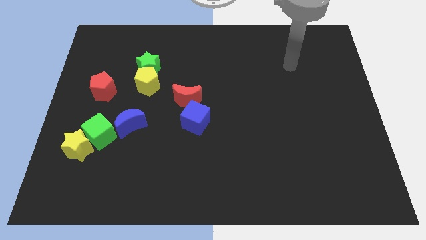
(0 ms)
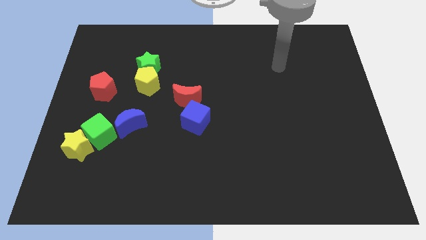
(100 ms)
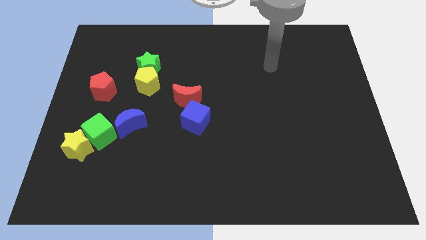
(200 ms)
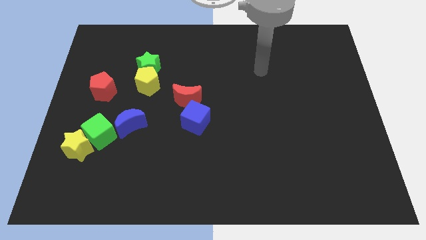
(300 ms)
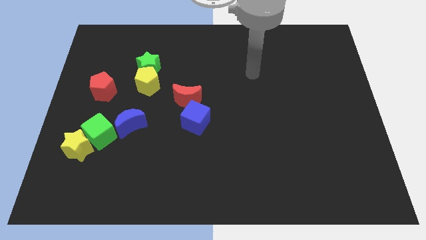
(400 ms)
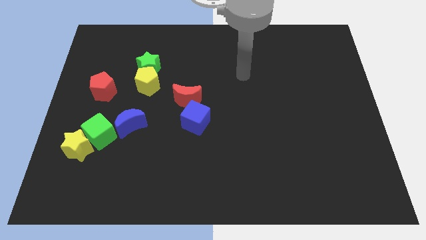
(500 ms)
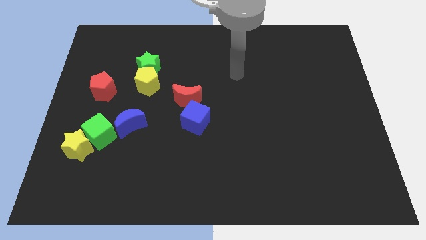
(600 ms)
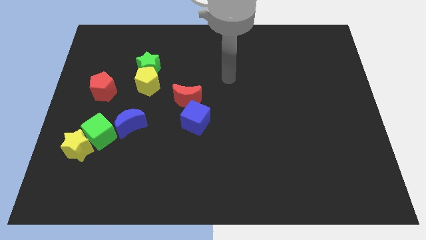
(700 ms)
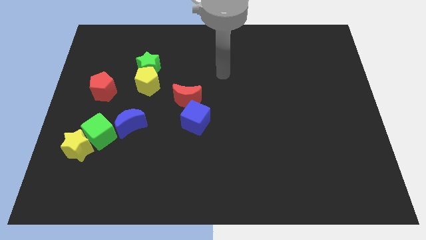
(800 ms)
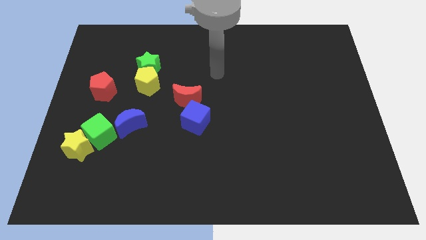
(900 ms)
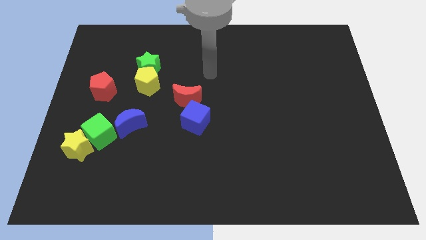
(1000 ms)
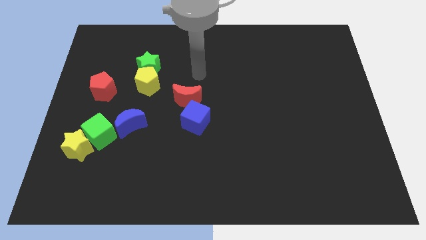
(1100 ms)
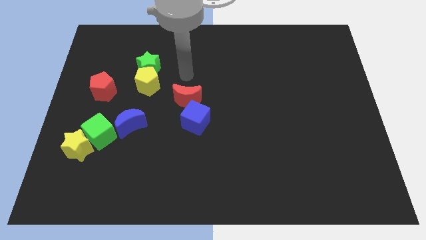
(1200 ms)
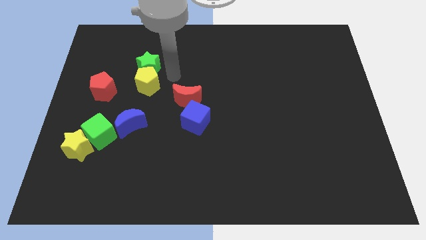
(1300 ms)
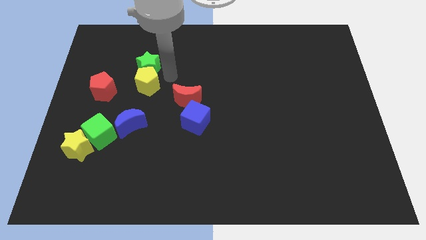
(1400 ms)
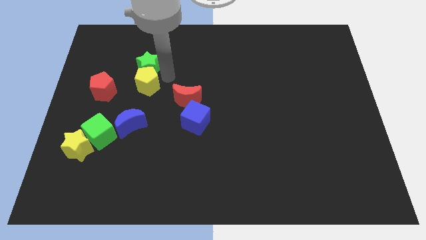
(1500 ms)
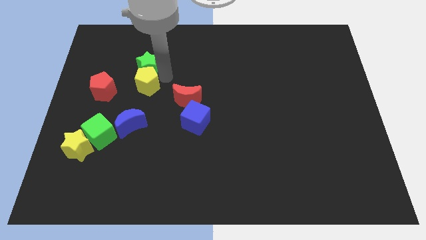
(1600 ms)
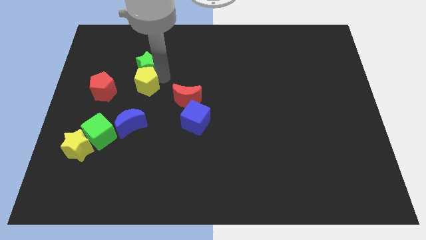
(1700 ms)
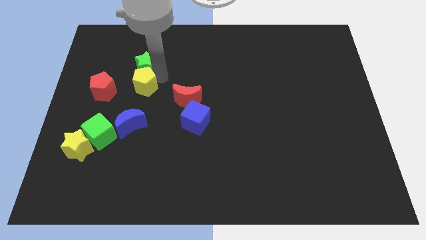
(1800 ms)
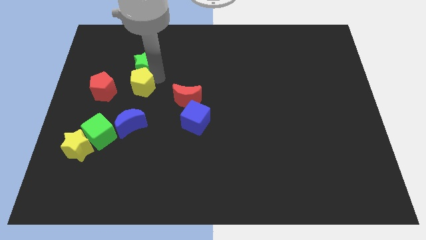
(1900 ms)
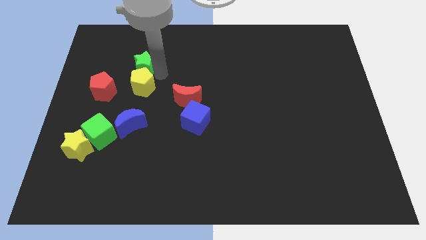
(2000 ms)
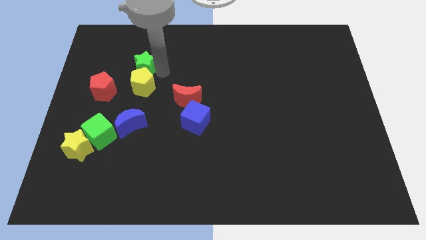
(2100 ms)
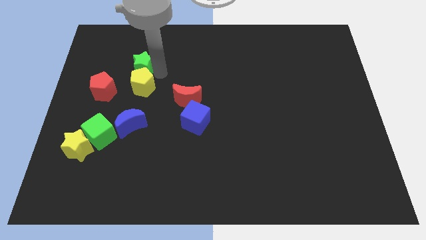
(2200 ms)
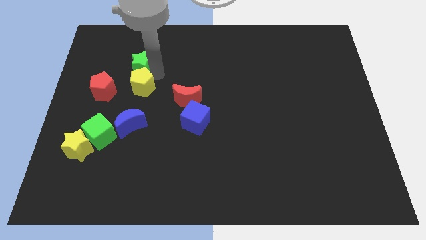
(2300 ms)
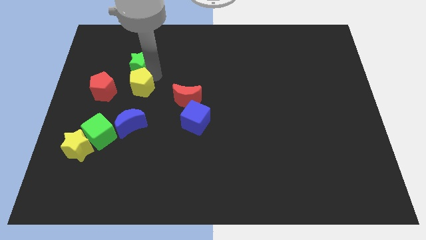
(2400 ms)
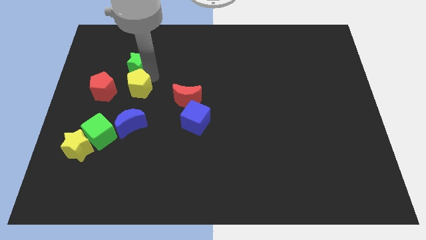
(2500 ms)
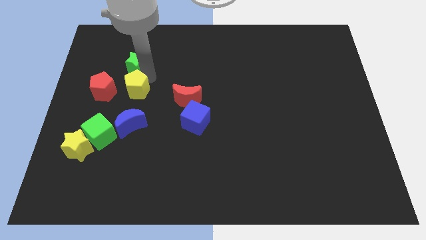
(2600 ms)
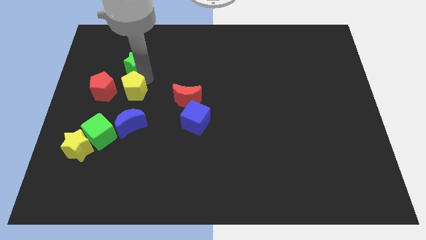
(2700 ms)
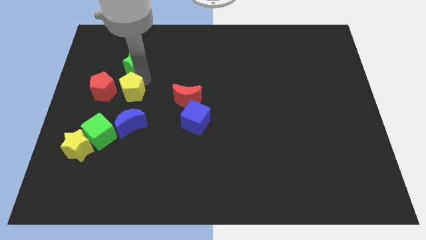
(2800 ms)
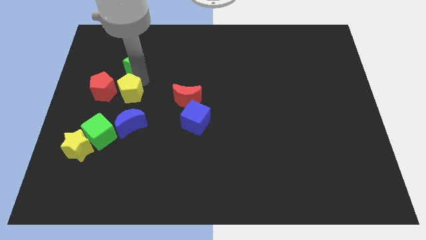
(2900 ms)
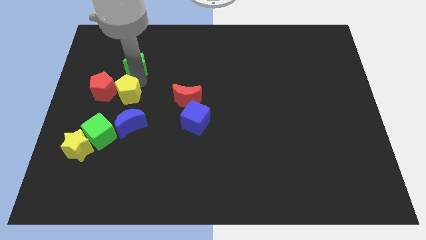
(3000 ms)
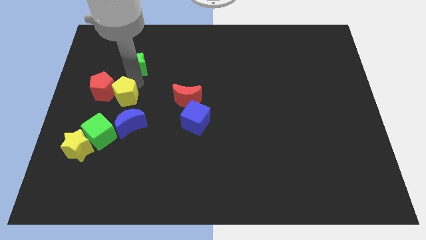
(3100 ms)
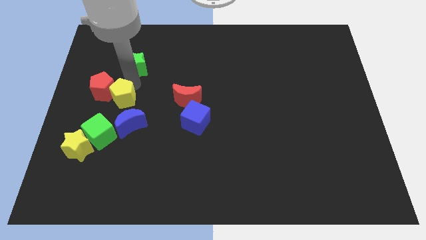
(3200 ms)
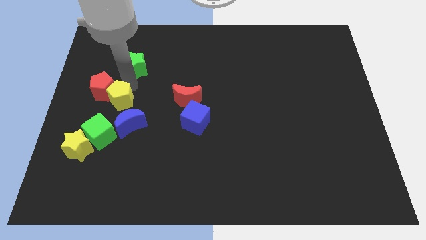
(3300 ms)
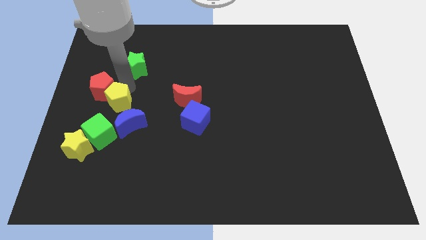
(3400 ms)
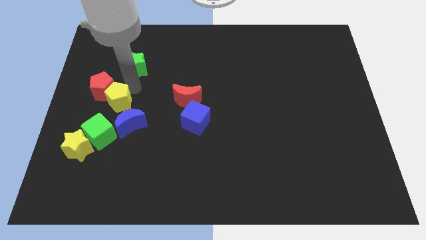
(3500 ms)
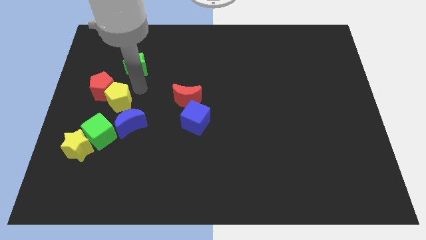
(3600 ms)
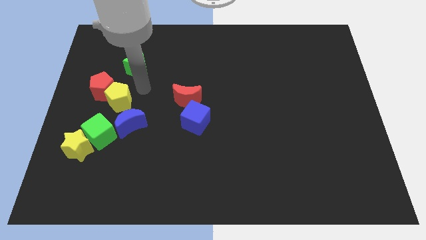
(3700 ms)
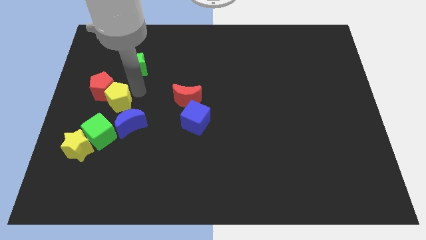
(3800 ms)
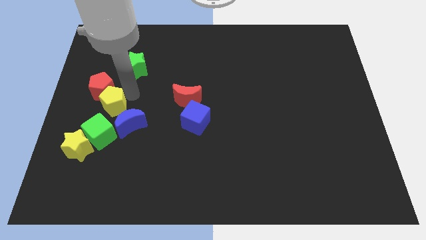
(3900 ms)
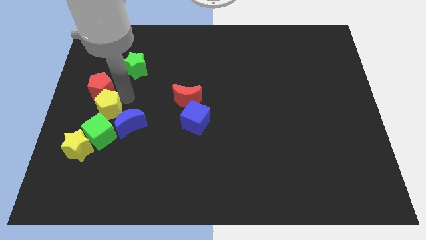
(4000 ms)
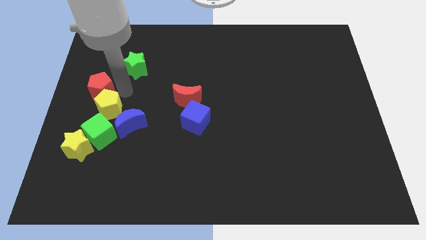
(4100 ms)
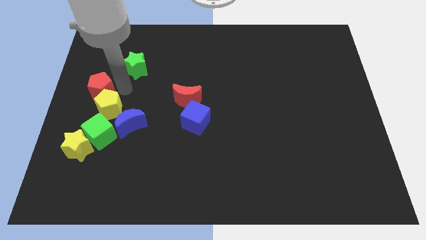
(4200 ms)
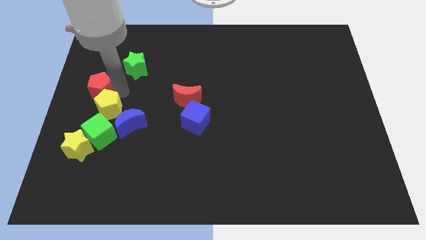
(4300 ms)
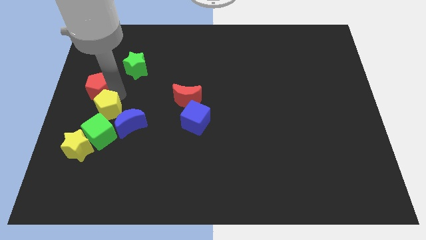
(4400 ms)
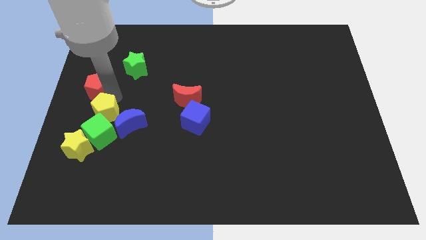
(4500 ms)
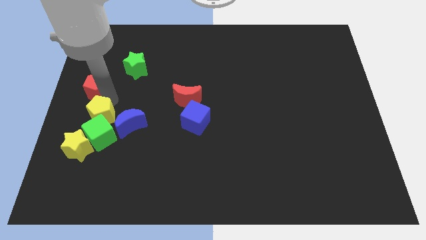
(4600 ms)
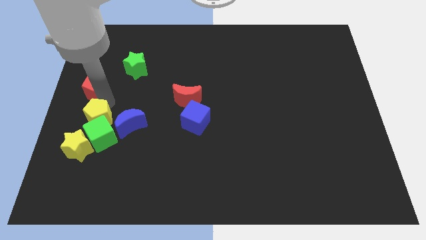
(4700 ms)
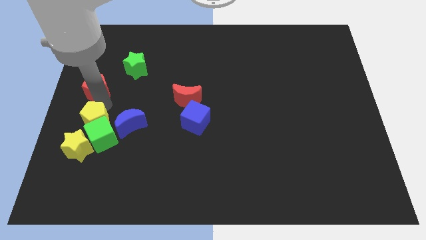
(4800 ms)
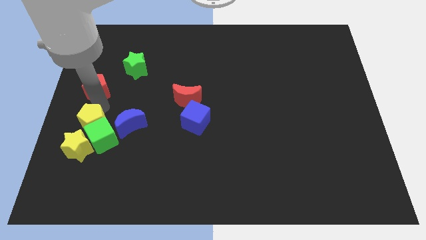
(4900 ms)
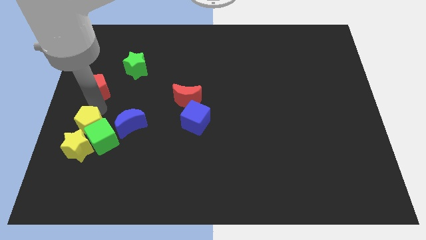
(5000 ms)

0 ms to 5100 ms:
slide the yellow pentagon close to the yellow star

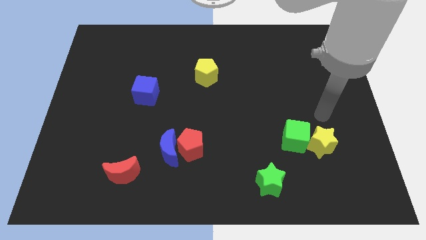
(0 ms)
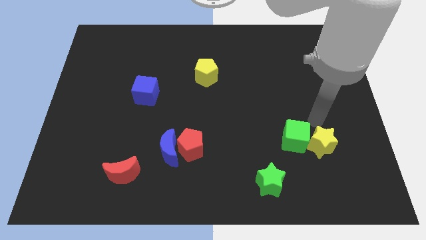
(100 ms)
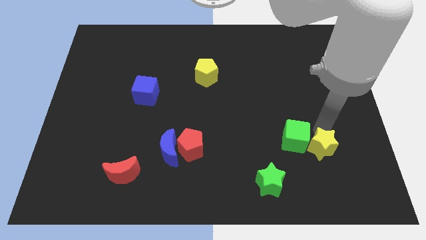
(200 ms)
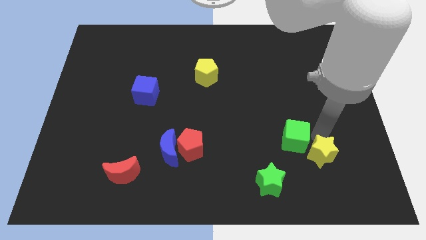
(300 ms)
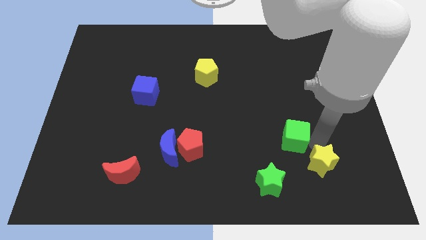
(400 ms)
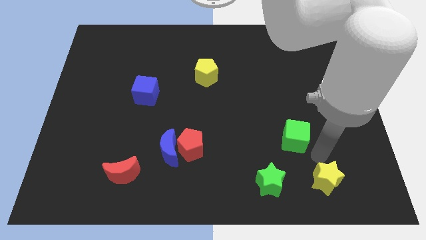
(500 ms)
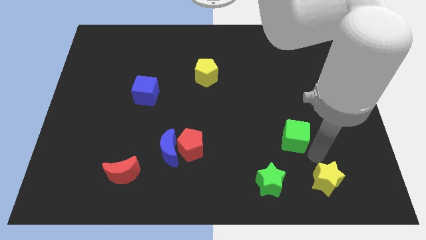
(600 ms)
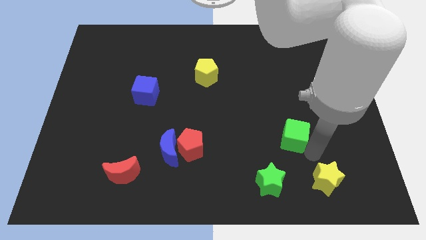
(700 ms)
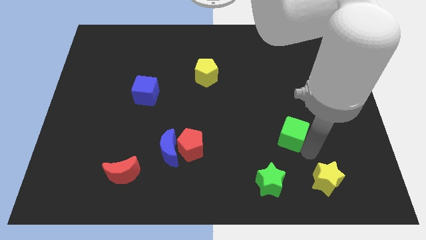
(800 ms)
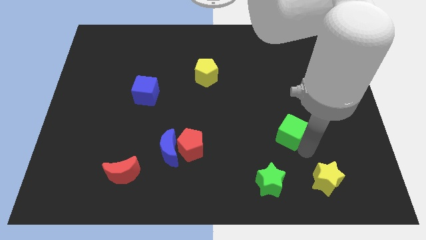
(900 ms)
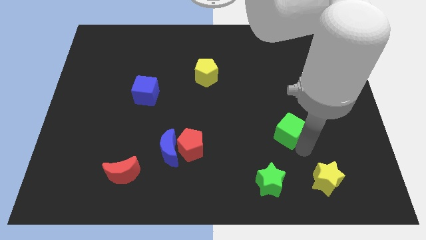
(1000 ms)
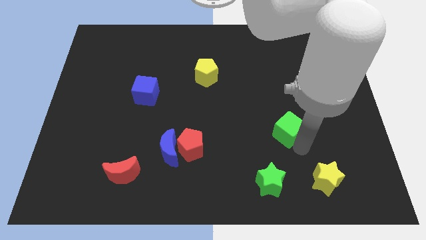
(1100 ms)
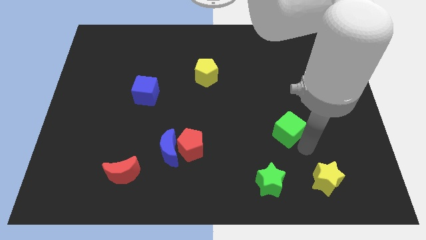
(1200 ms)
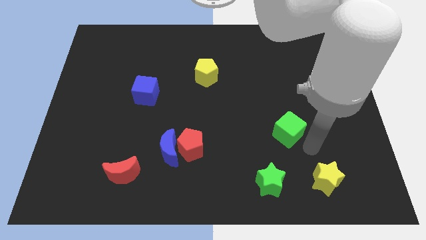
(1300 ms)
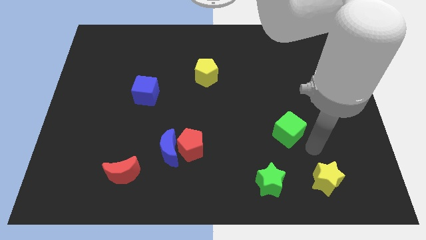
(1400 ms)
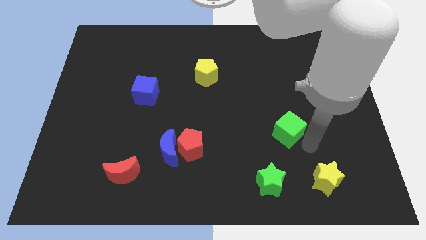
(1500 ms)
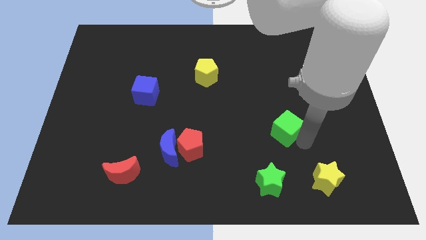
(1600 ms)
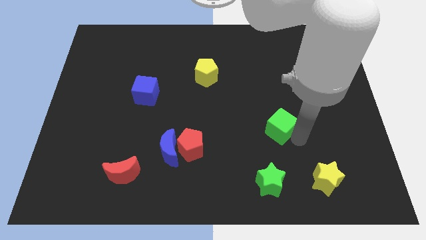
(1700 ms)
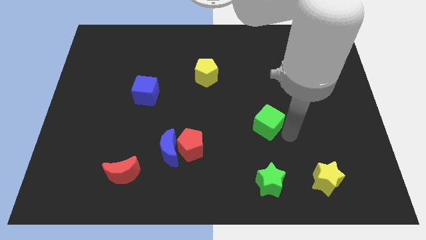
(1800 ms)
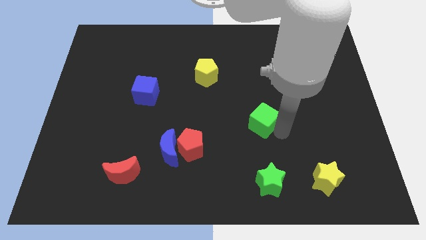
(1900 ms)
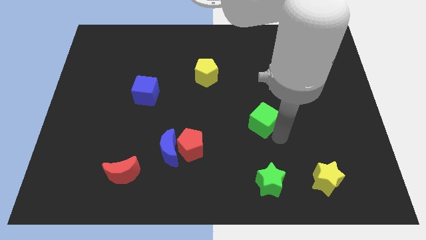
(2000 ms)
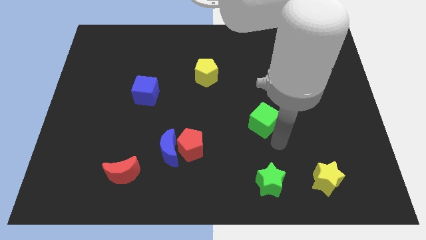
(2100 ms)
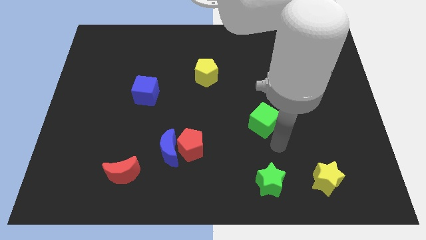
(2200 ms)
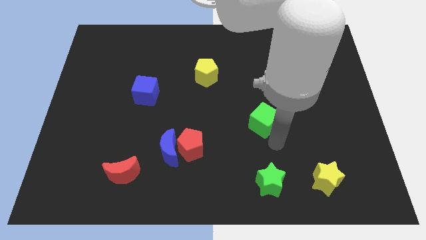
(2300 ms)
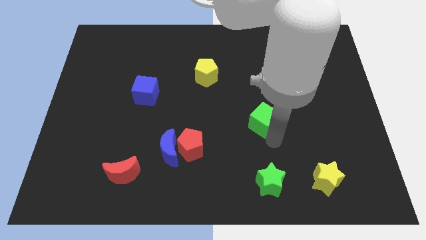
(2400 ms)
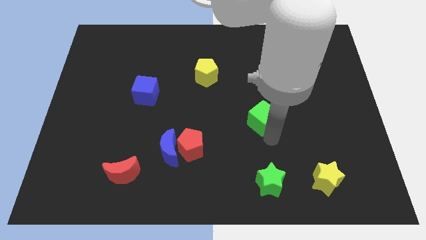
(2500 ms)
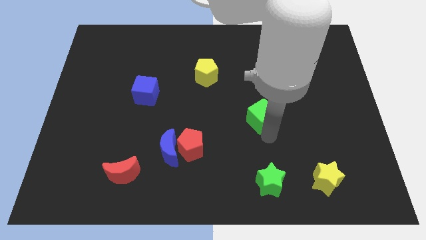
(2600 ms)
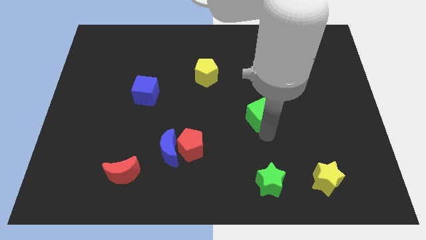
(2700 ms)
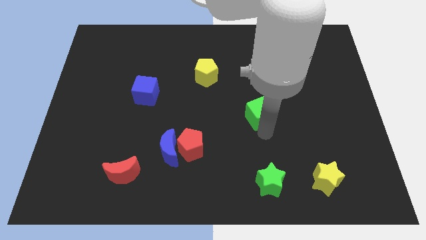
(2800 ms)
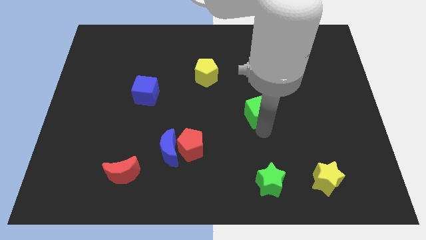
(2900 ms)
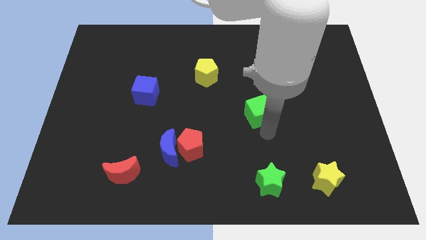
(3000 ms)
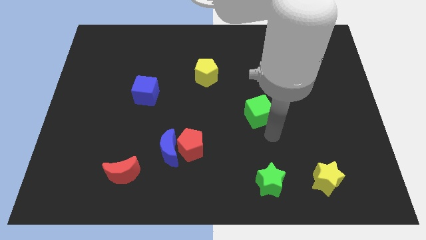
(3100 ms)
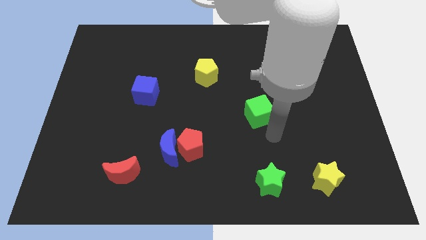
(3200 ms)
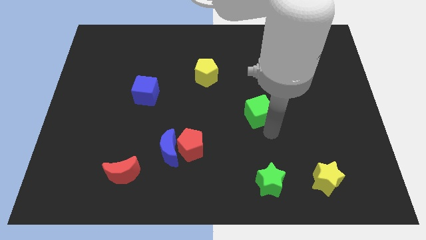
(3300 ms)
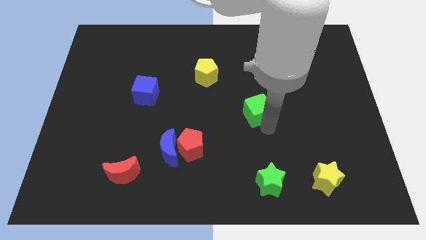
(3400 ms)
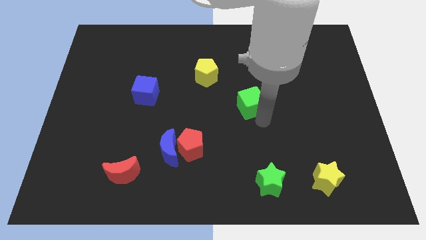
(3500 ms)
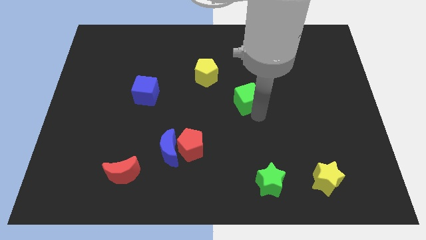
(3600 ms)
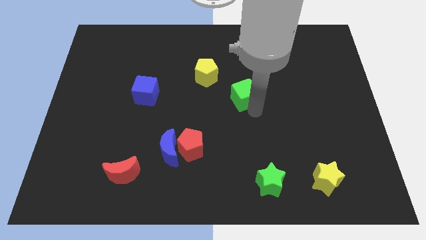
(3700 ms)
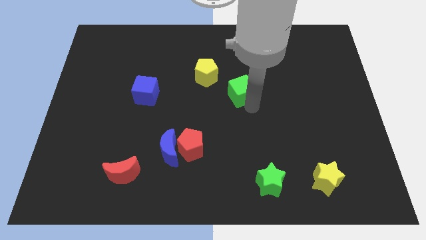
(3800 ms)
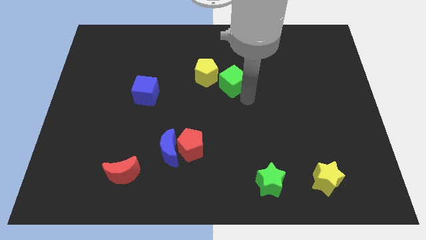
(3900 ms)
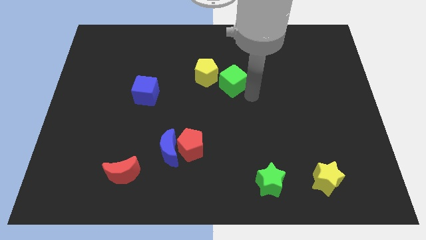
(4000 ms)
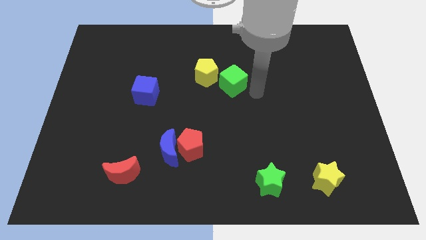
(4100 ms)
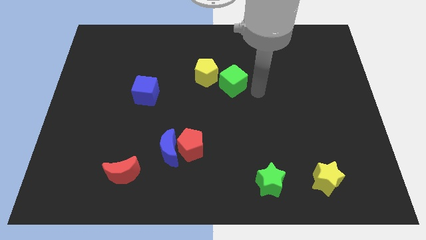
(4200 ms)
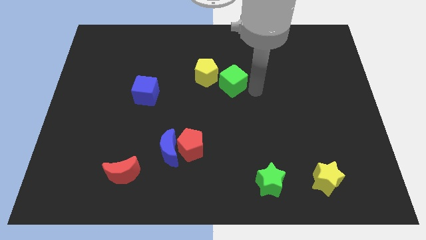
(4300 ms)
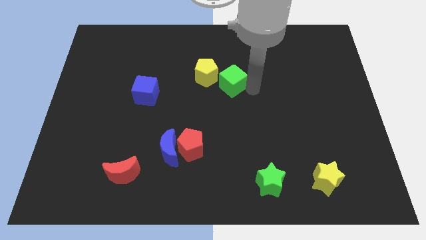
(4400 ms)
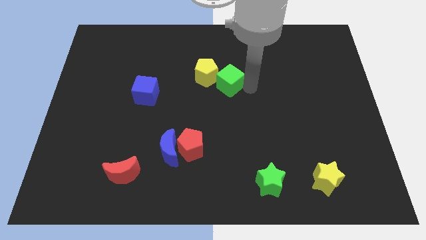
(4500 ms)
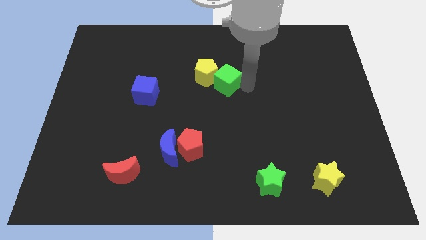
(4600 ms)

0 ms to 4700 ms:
push the green cube close to the yellow pentagon
